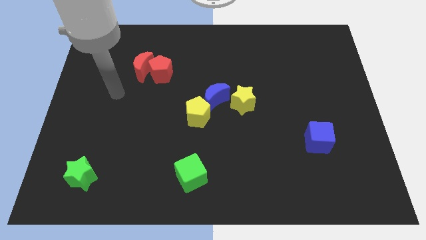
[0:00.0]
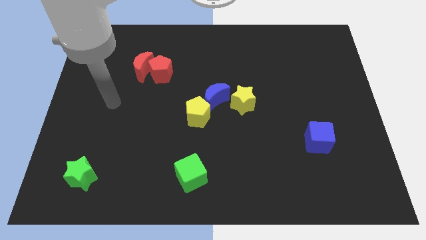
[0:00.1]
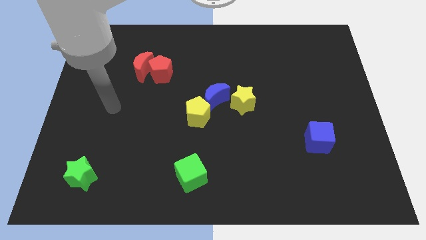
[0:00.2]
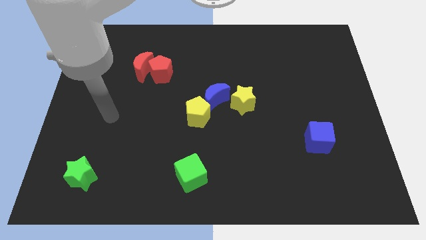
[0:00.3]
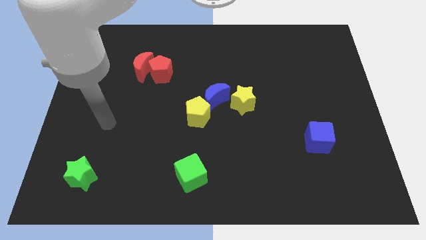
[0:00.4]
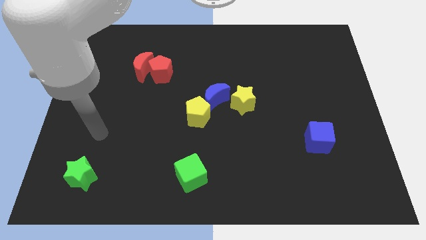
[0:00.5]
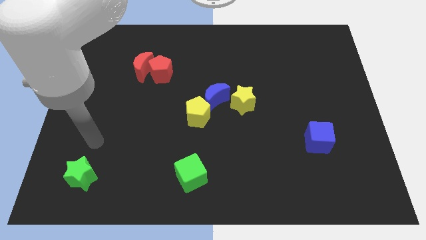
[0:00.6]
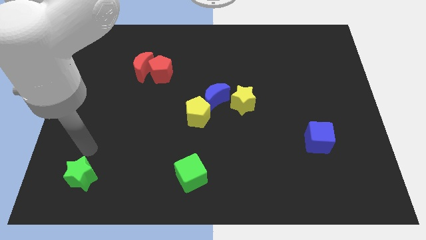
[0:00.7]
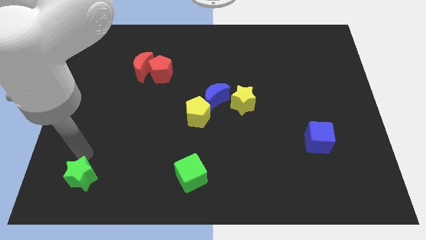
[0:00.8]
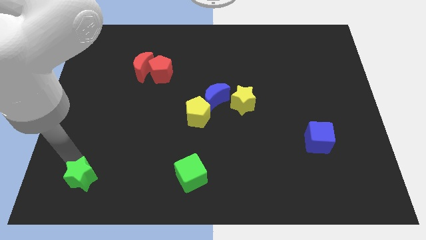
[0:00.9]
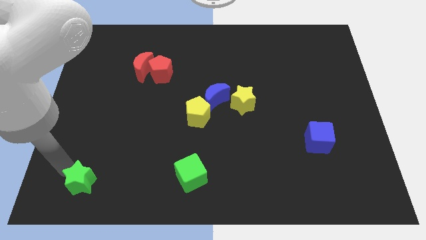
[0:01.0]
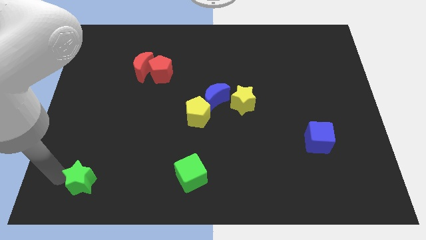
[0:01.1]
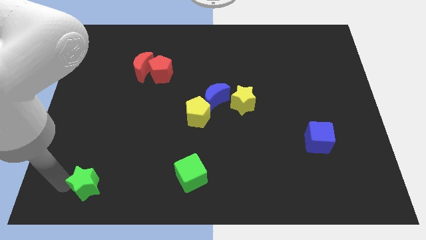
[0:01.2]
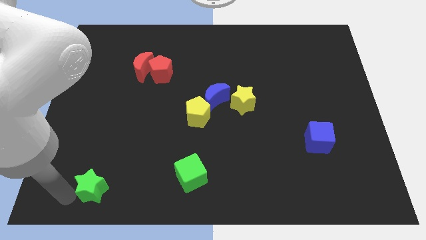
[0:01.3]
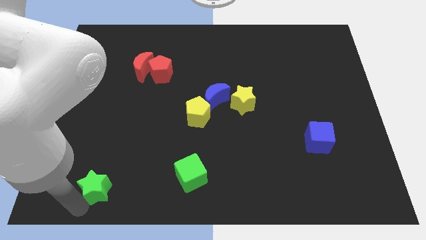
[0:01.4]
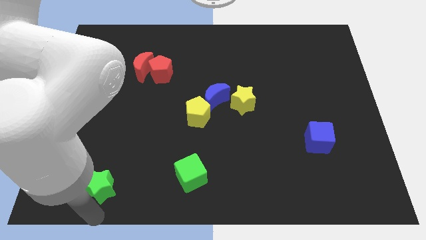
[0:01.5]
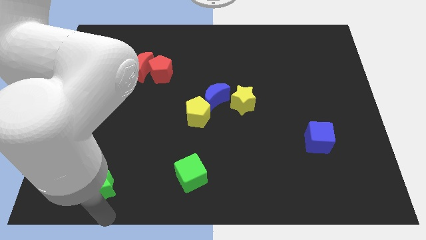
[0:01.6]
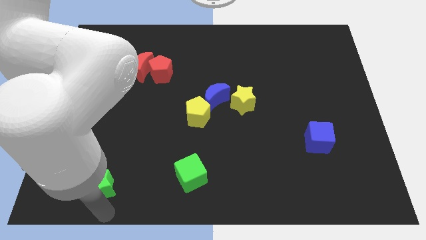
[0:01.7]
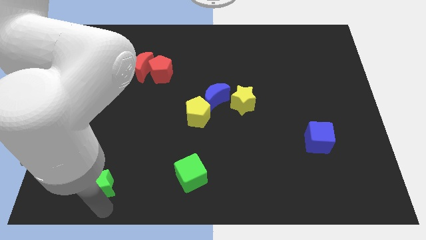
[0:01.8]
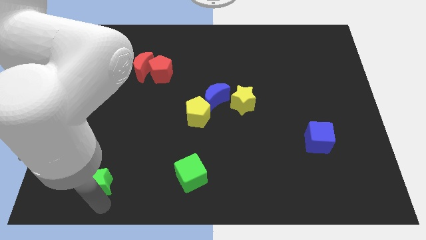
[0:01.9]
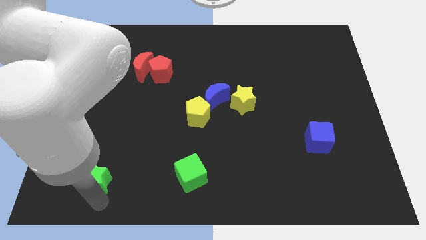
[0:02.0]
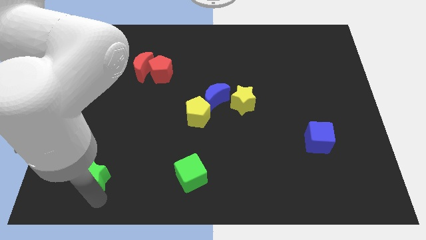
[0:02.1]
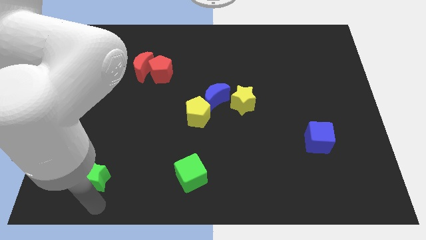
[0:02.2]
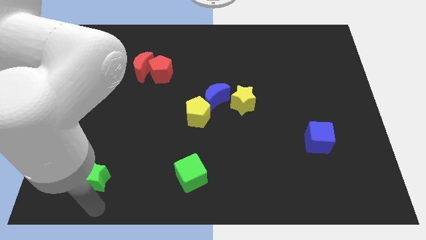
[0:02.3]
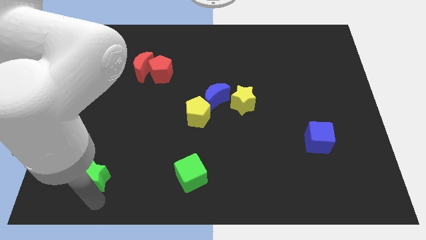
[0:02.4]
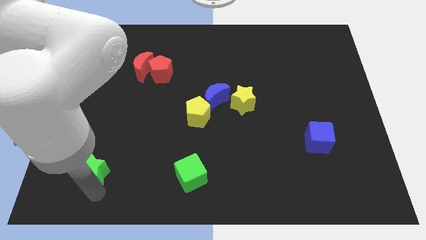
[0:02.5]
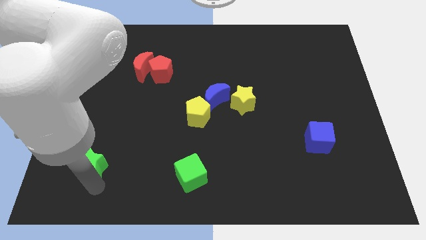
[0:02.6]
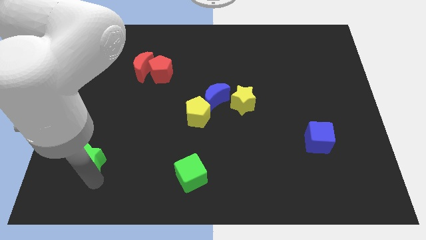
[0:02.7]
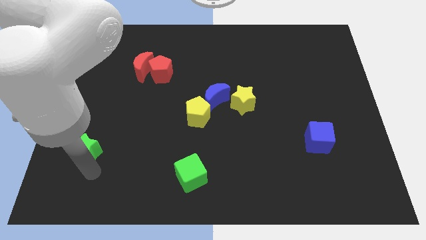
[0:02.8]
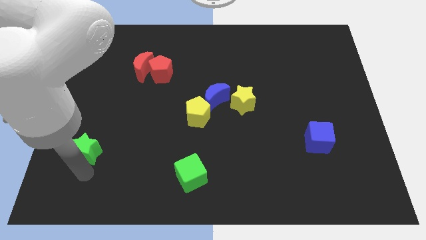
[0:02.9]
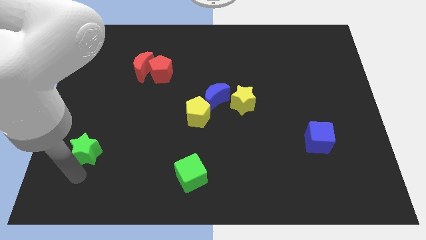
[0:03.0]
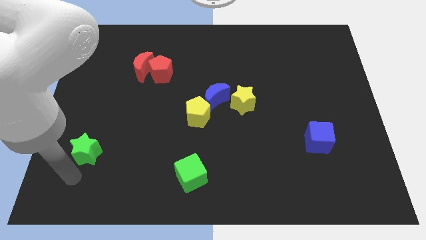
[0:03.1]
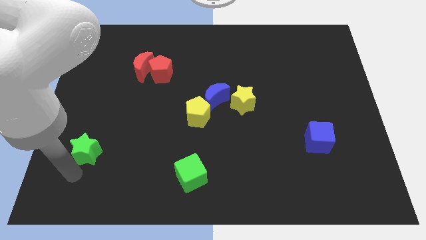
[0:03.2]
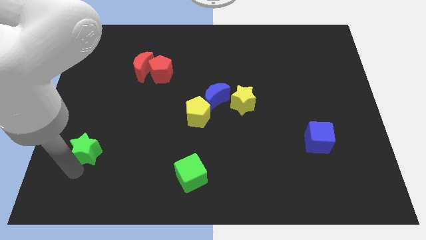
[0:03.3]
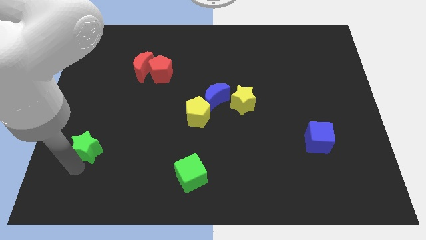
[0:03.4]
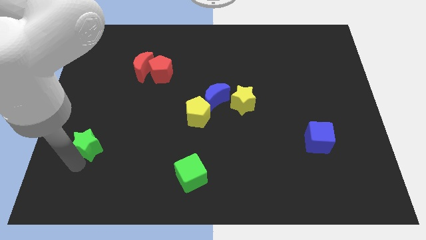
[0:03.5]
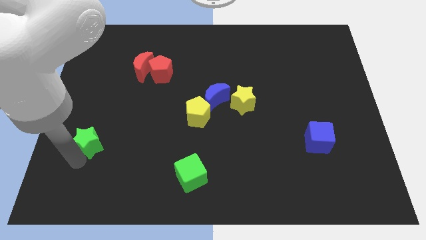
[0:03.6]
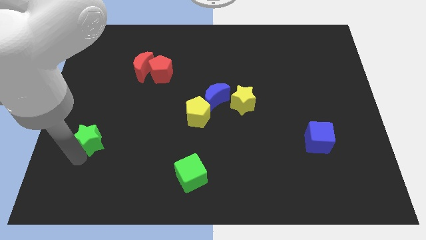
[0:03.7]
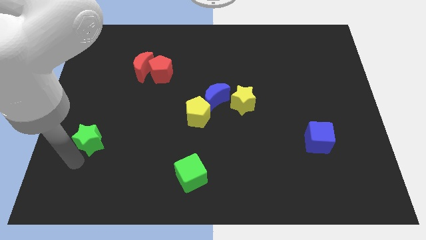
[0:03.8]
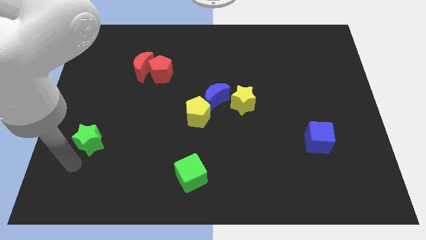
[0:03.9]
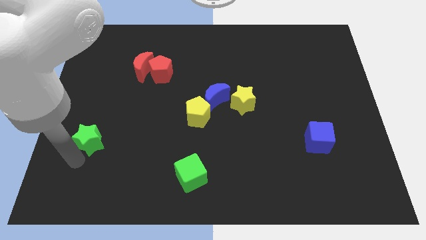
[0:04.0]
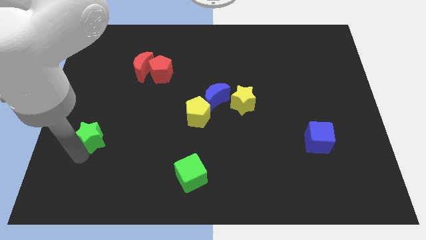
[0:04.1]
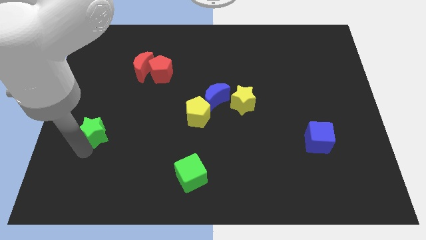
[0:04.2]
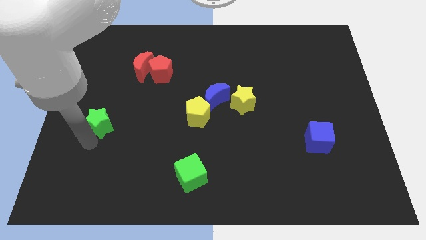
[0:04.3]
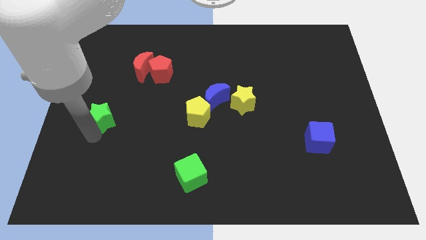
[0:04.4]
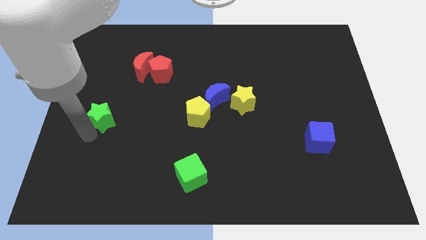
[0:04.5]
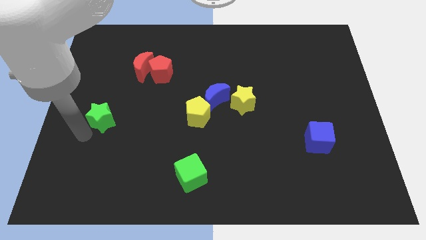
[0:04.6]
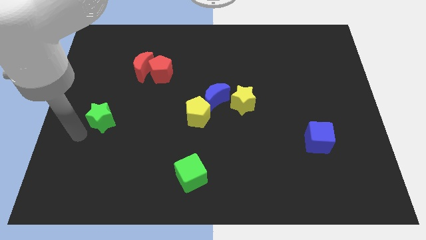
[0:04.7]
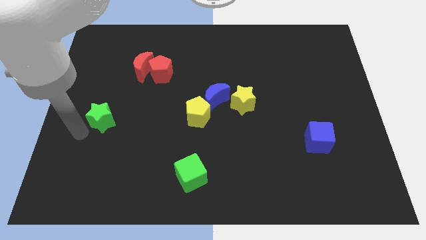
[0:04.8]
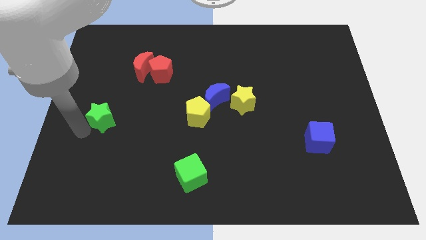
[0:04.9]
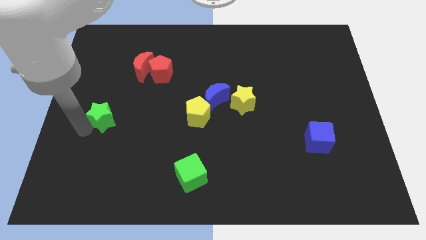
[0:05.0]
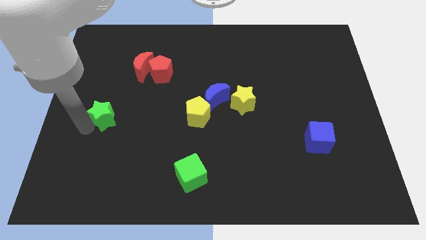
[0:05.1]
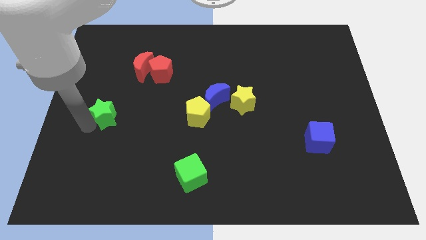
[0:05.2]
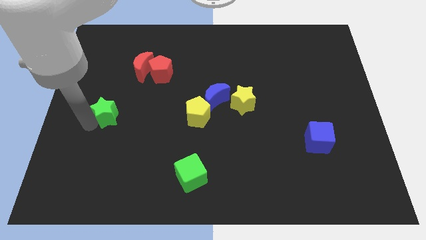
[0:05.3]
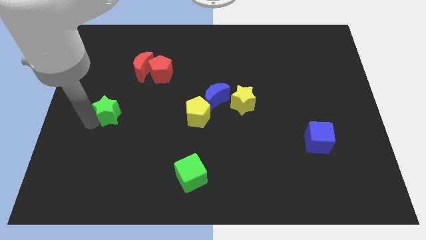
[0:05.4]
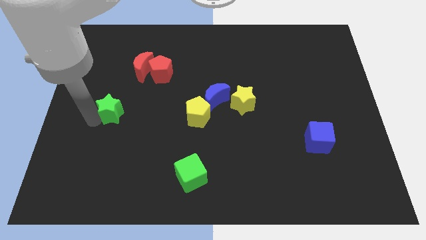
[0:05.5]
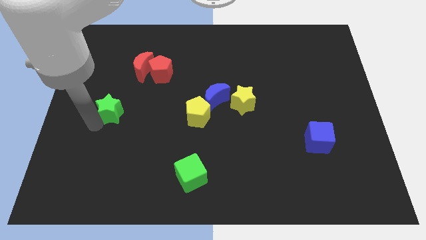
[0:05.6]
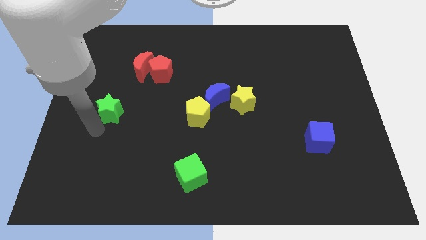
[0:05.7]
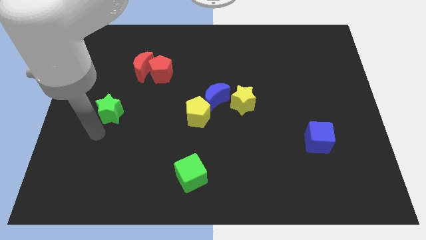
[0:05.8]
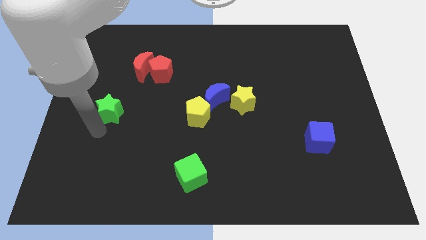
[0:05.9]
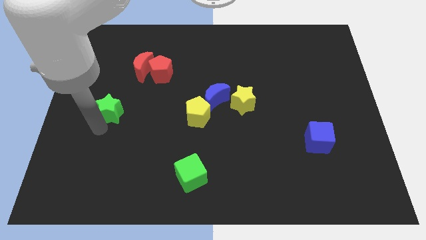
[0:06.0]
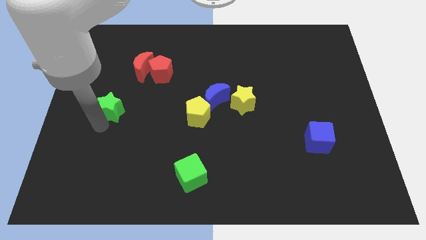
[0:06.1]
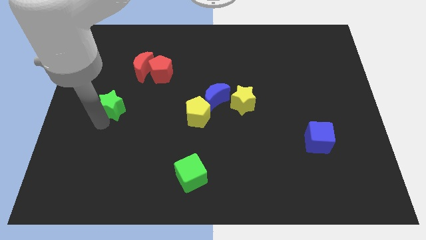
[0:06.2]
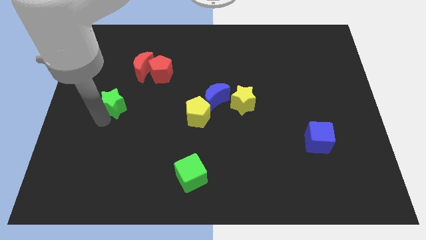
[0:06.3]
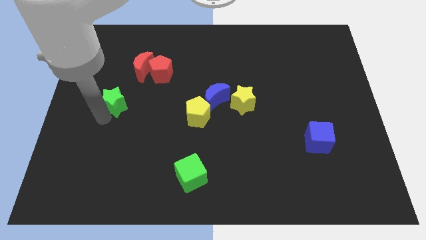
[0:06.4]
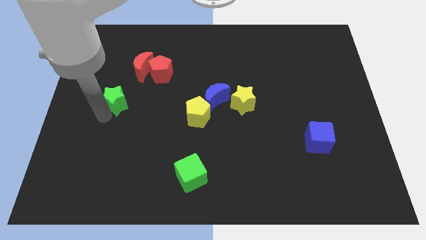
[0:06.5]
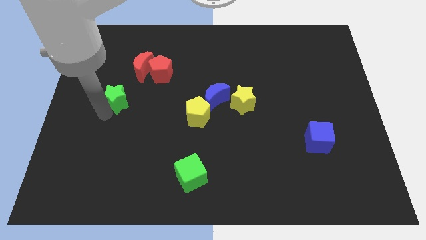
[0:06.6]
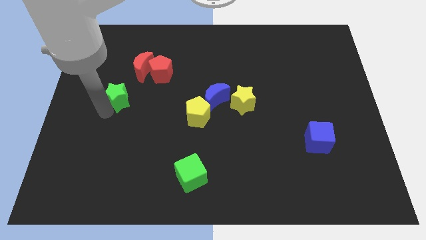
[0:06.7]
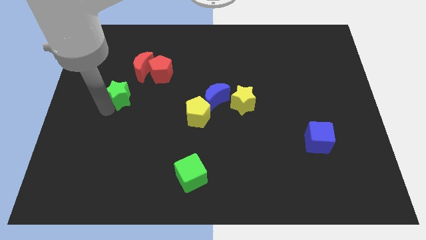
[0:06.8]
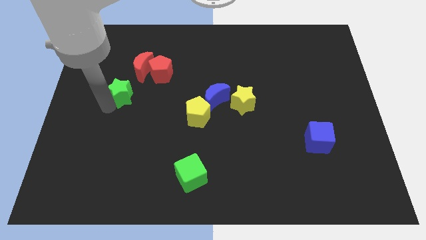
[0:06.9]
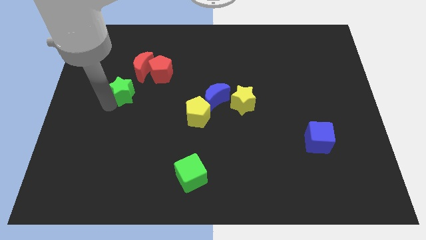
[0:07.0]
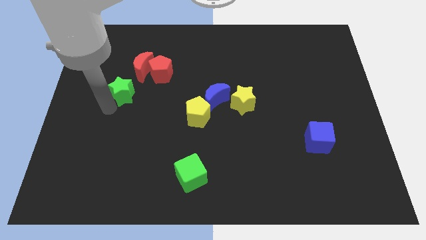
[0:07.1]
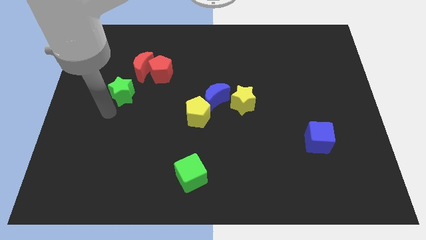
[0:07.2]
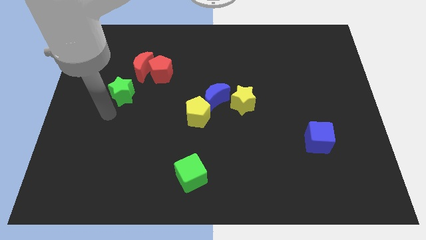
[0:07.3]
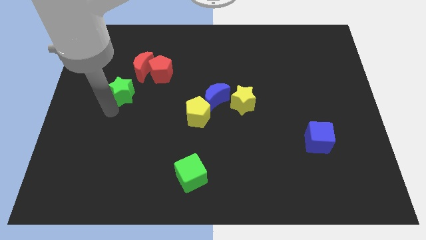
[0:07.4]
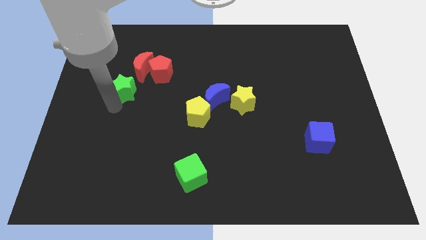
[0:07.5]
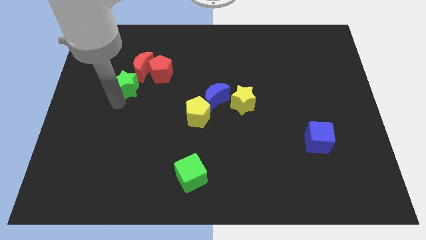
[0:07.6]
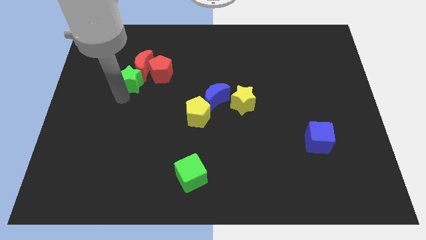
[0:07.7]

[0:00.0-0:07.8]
push the green star next to the red moon
